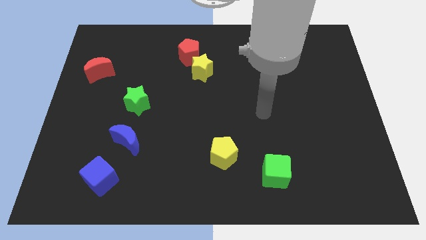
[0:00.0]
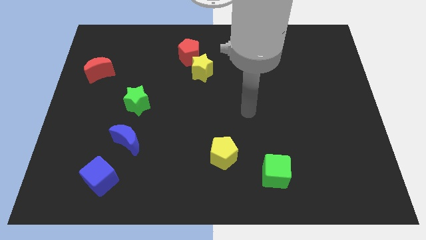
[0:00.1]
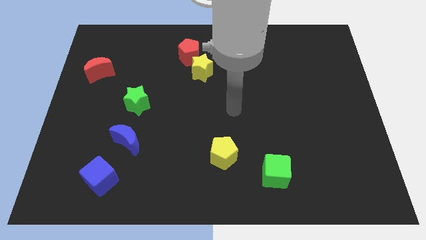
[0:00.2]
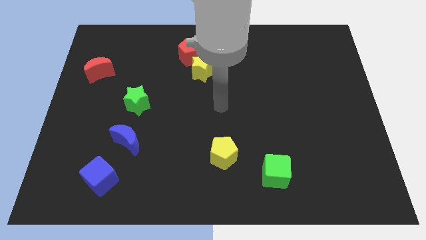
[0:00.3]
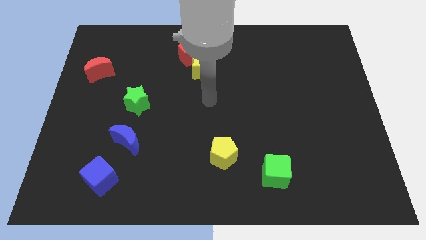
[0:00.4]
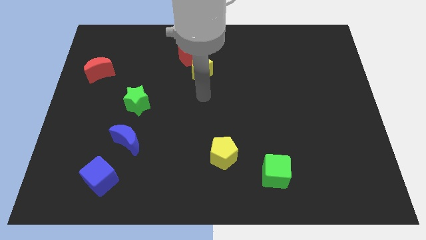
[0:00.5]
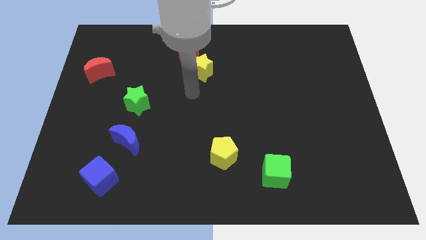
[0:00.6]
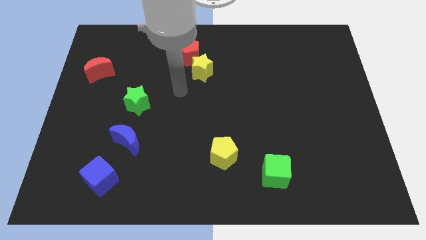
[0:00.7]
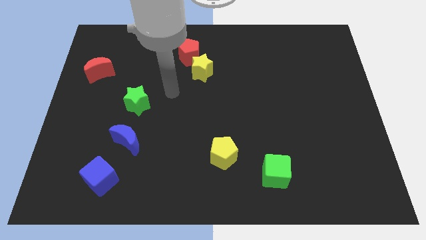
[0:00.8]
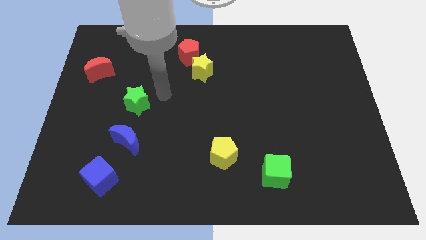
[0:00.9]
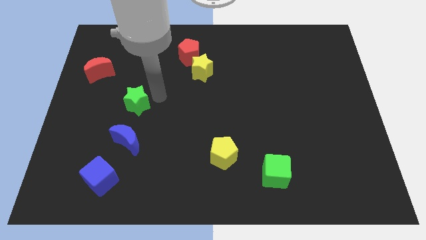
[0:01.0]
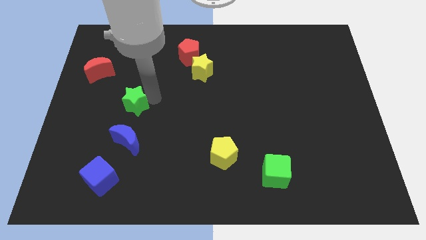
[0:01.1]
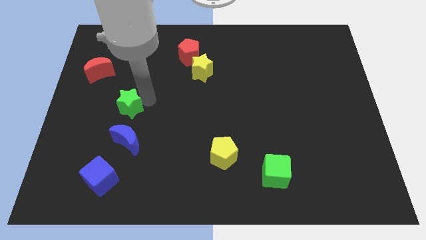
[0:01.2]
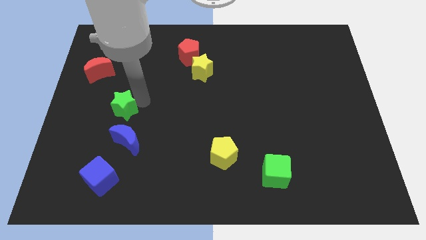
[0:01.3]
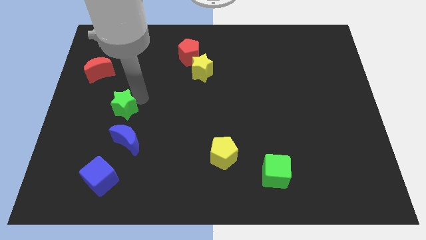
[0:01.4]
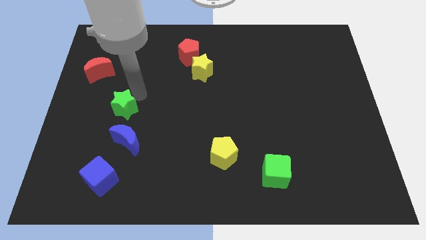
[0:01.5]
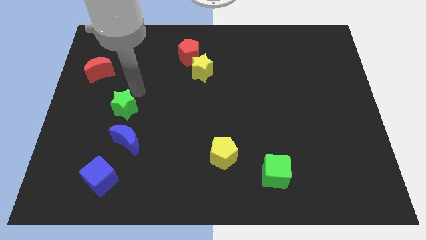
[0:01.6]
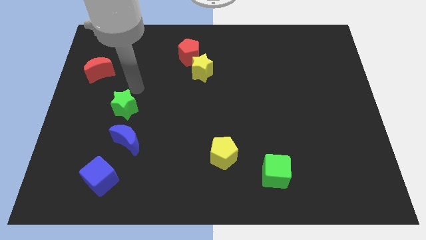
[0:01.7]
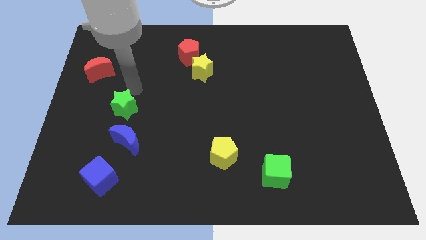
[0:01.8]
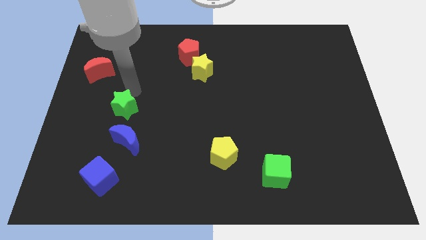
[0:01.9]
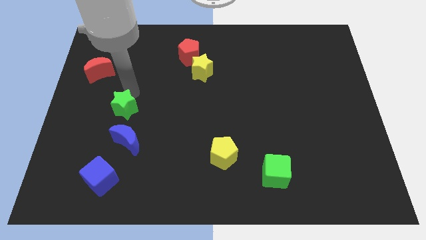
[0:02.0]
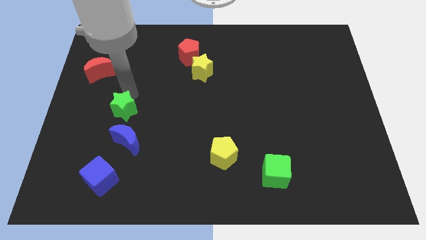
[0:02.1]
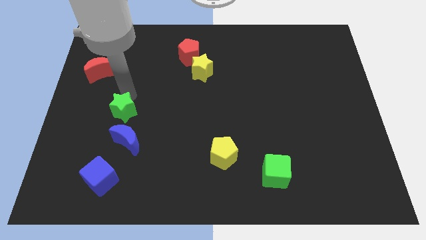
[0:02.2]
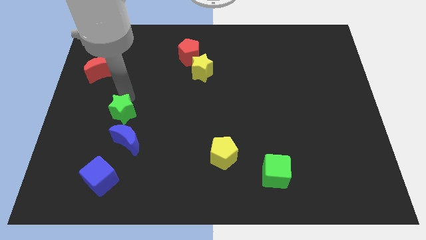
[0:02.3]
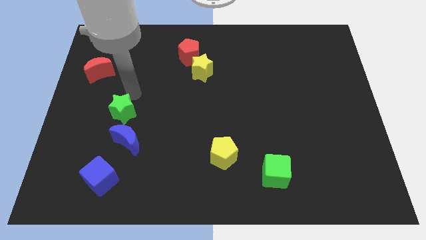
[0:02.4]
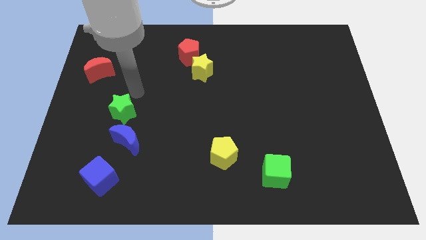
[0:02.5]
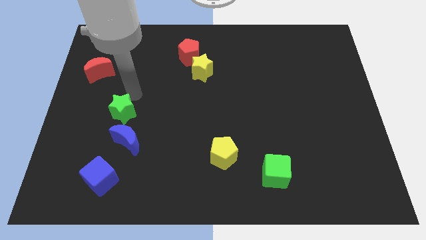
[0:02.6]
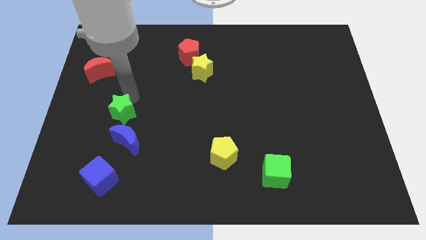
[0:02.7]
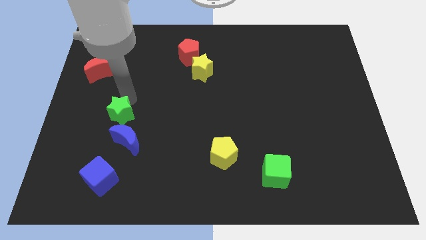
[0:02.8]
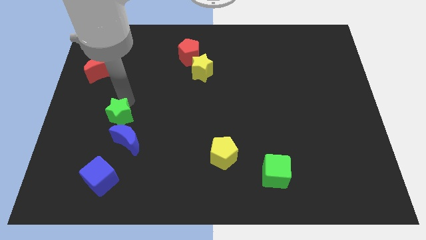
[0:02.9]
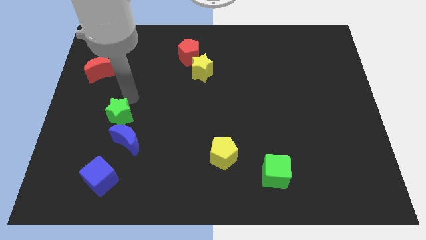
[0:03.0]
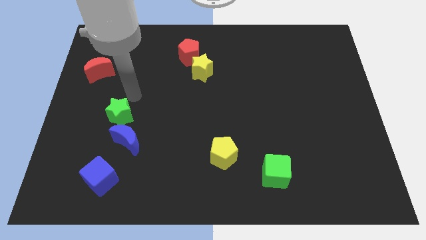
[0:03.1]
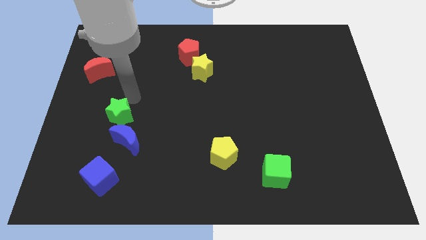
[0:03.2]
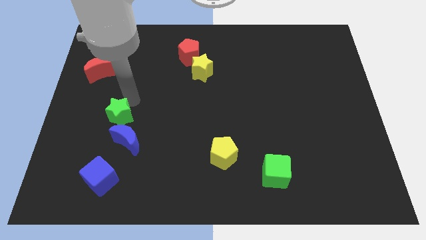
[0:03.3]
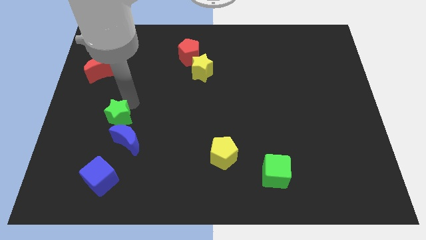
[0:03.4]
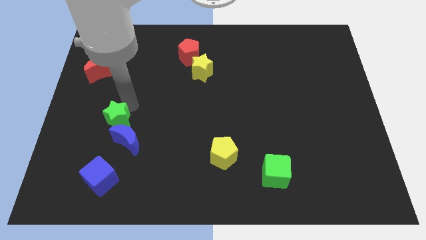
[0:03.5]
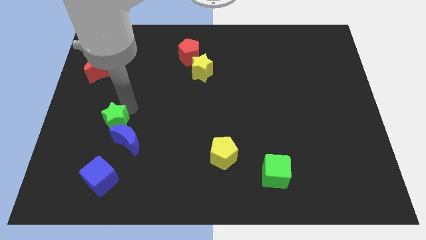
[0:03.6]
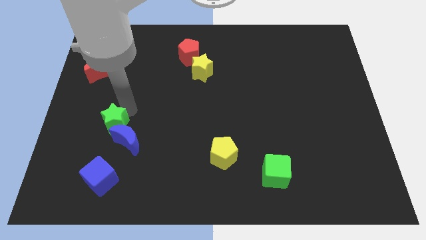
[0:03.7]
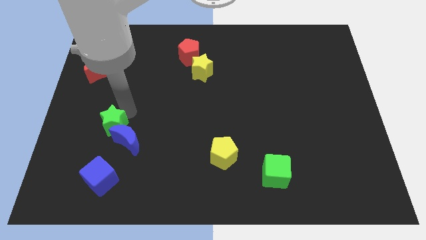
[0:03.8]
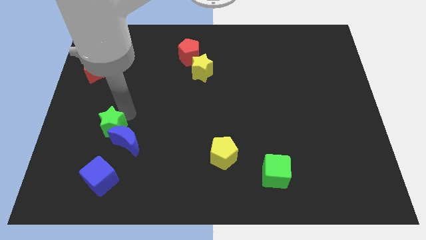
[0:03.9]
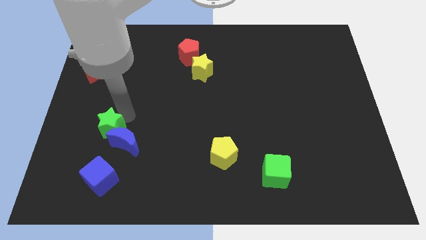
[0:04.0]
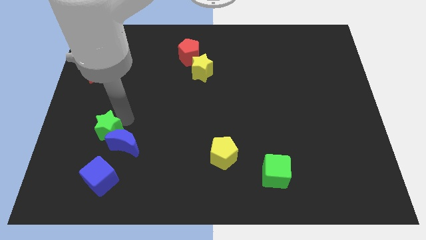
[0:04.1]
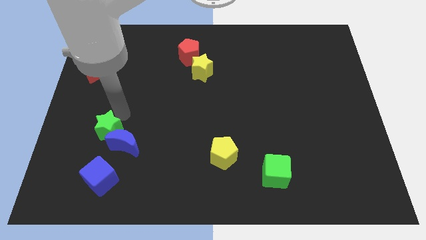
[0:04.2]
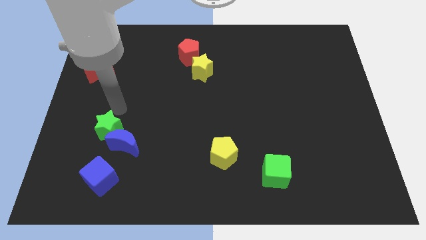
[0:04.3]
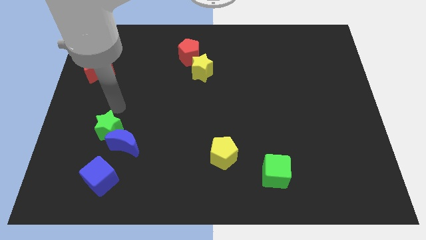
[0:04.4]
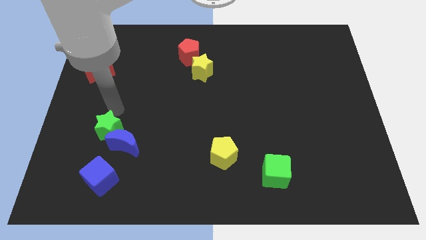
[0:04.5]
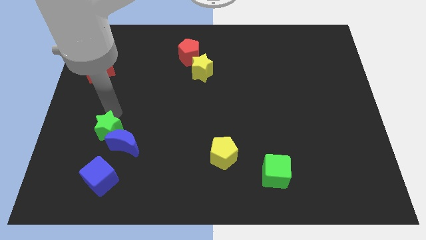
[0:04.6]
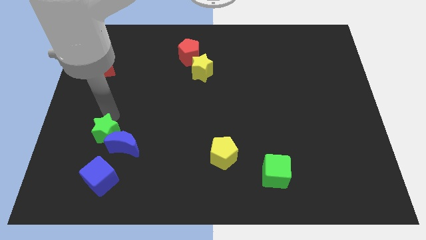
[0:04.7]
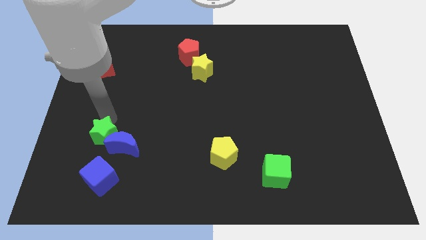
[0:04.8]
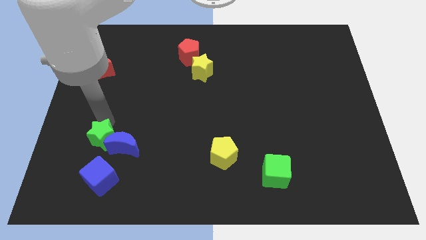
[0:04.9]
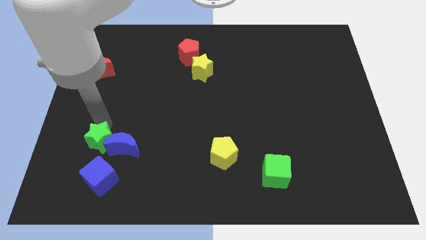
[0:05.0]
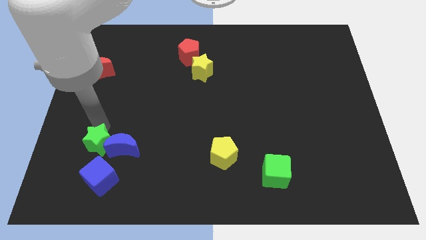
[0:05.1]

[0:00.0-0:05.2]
move the green star to the bottom left side of the blue moon

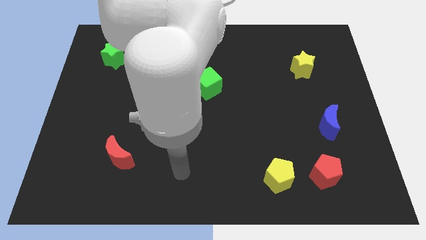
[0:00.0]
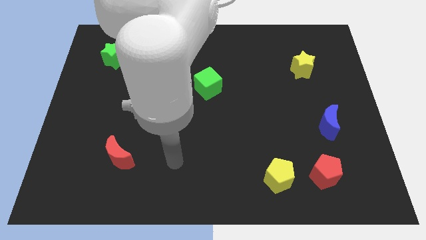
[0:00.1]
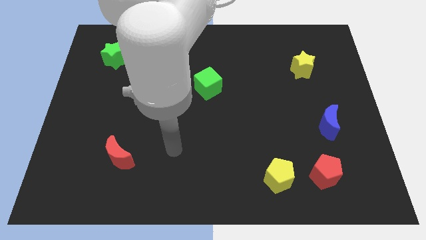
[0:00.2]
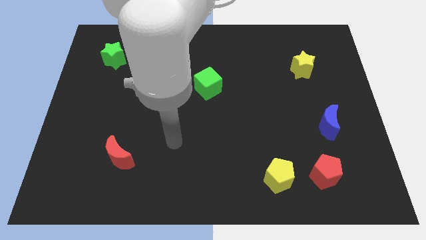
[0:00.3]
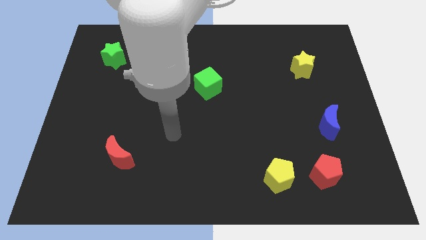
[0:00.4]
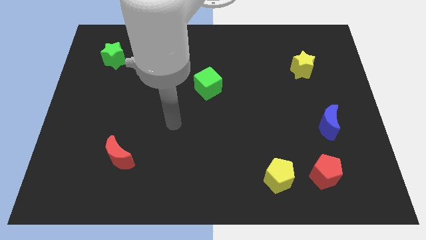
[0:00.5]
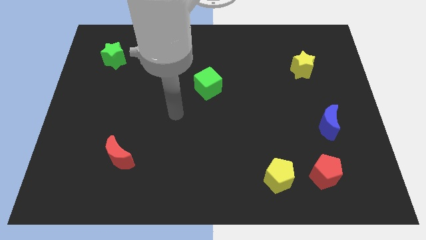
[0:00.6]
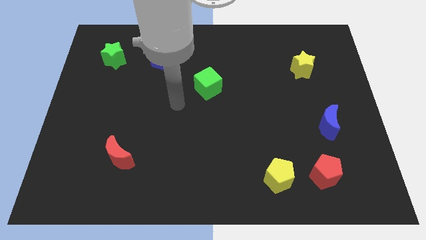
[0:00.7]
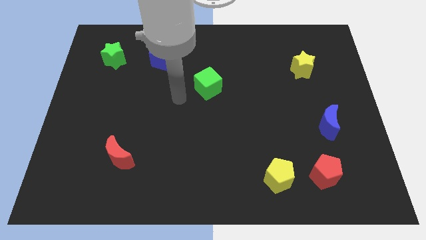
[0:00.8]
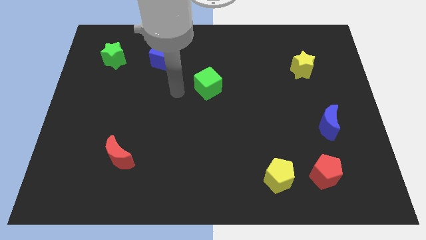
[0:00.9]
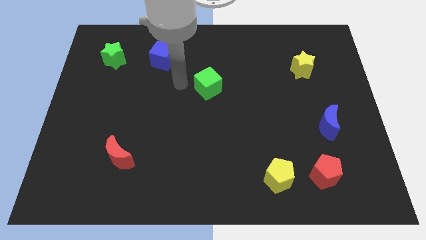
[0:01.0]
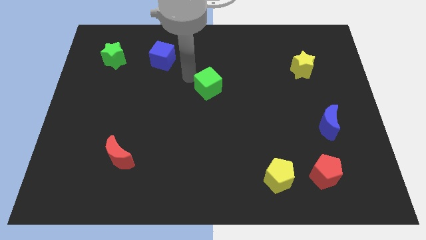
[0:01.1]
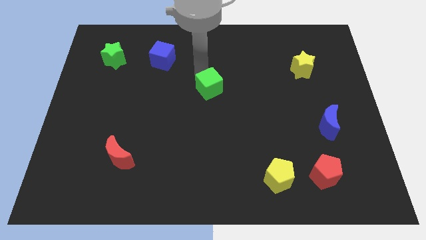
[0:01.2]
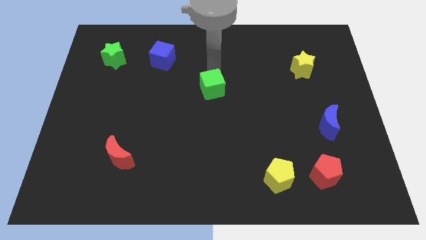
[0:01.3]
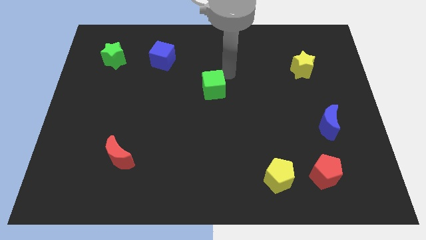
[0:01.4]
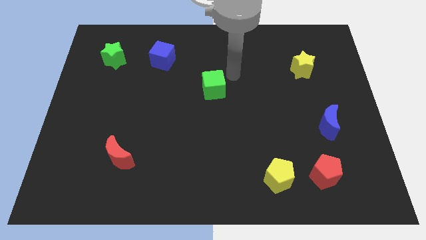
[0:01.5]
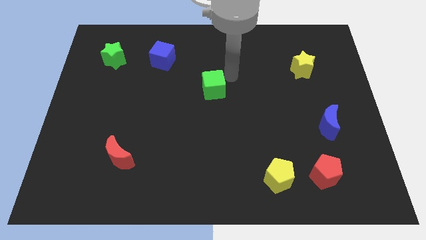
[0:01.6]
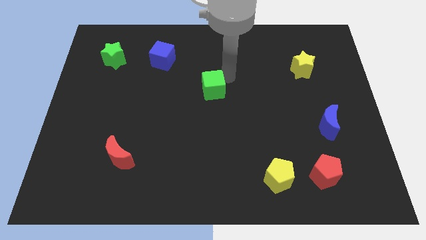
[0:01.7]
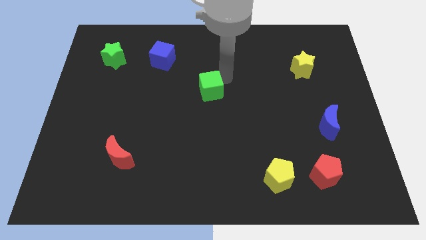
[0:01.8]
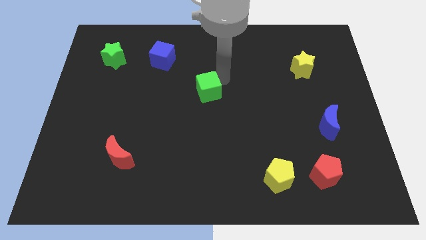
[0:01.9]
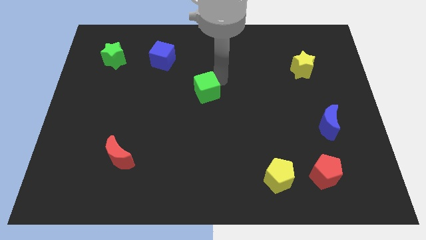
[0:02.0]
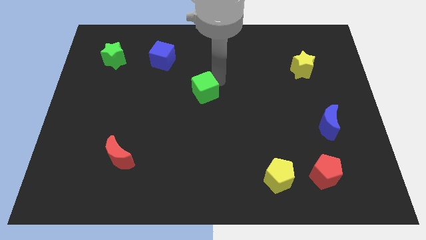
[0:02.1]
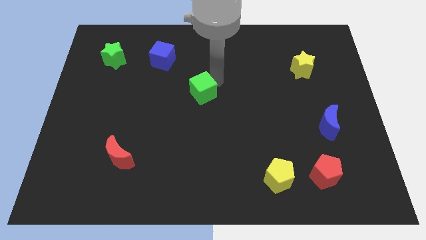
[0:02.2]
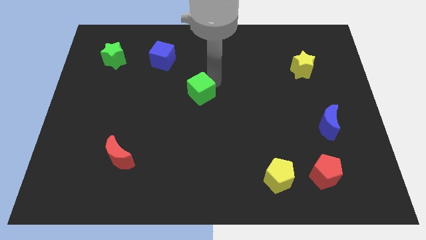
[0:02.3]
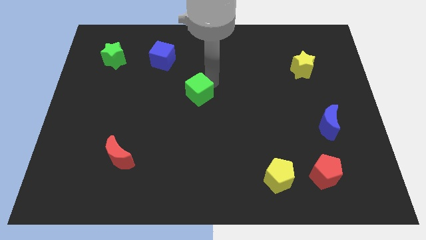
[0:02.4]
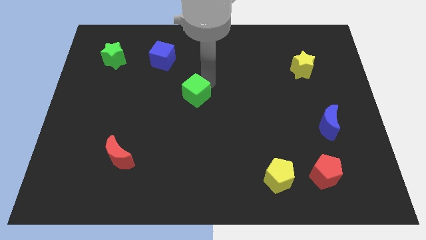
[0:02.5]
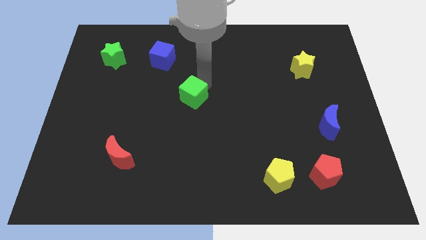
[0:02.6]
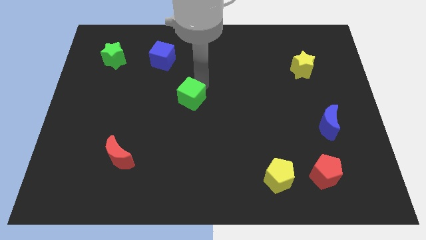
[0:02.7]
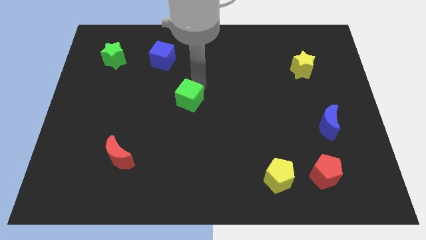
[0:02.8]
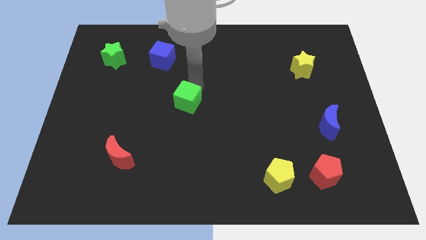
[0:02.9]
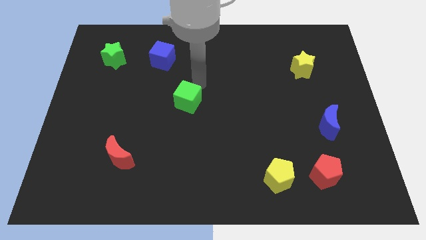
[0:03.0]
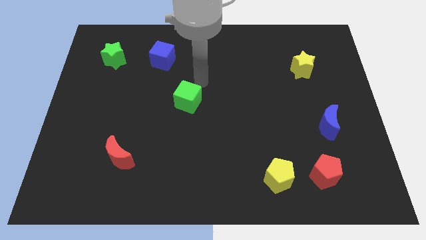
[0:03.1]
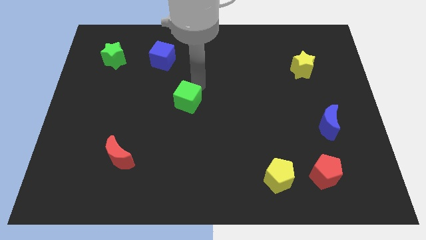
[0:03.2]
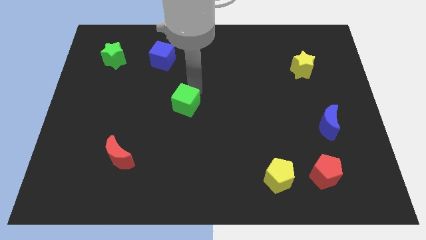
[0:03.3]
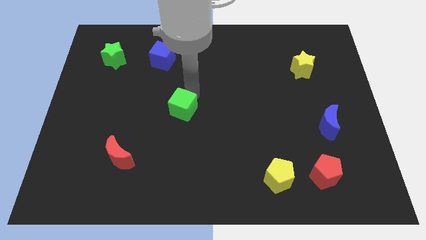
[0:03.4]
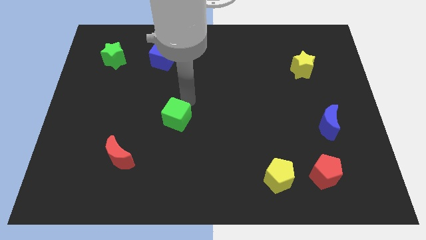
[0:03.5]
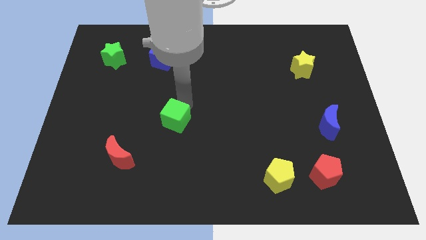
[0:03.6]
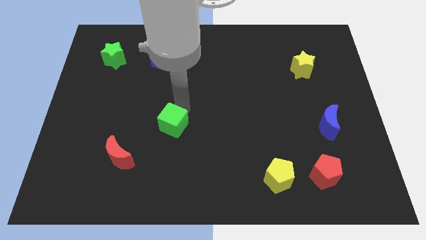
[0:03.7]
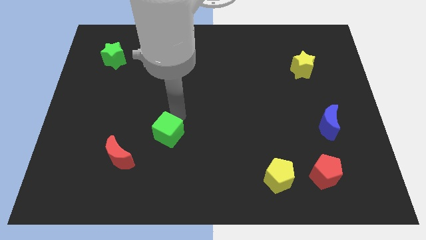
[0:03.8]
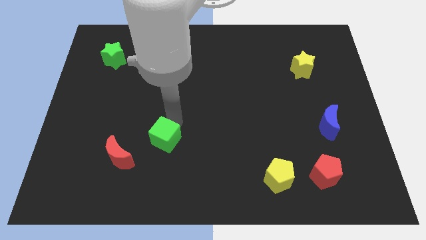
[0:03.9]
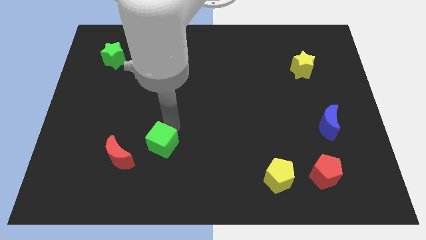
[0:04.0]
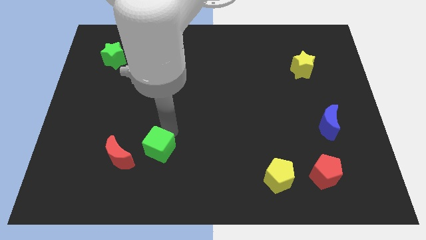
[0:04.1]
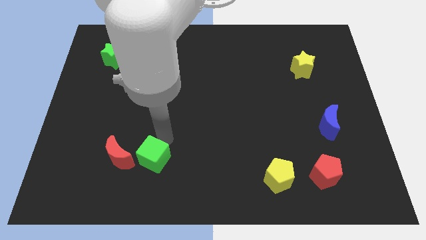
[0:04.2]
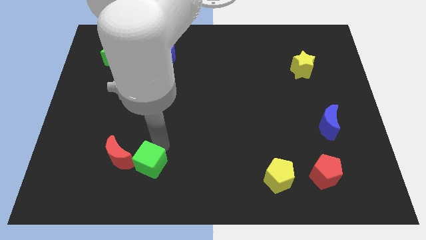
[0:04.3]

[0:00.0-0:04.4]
slide the green cube to the bottom right of the red moon
